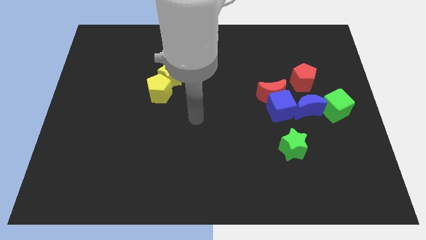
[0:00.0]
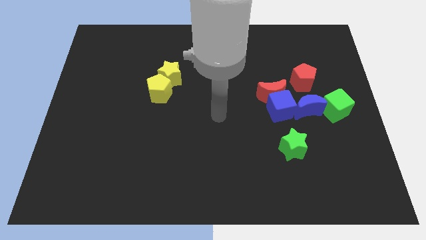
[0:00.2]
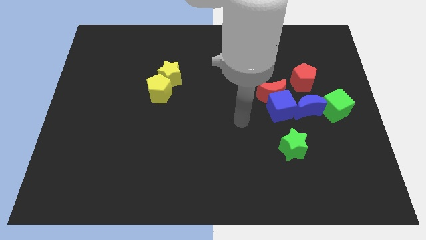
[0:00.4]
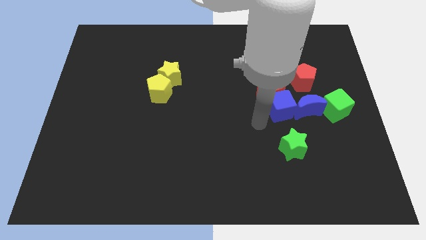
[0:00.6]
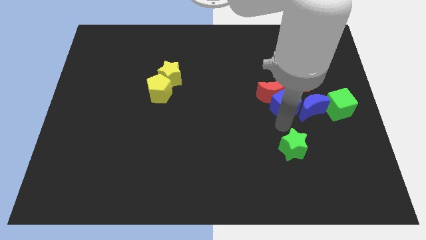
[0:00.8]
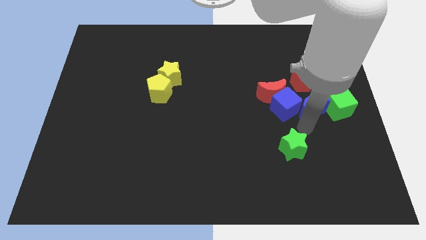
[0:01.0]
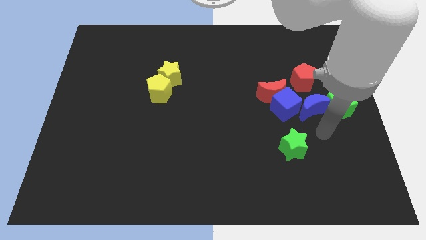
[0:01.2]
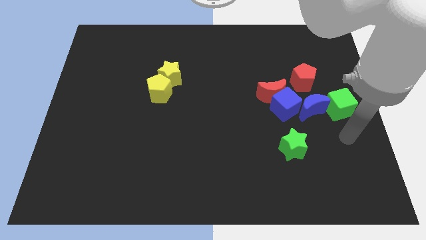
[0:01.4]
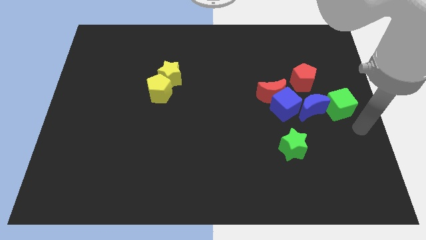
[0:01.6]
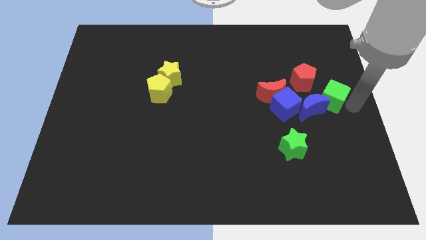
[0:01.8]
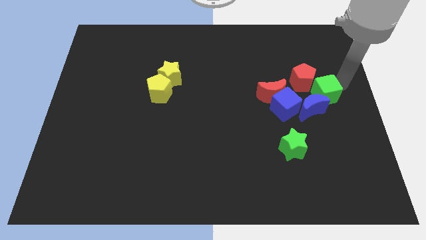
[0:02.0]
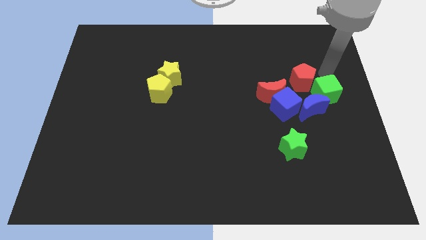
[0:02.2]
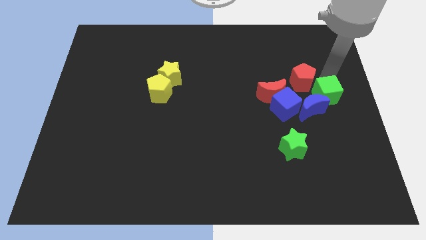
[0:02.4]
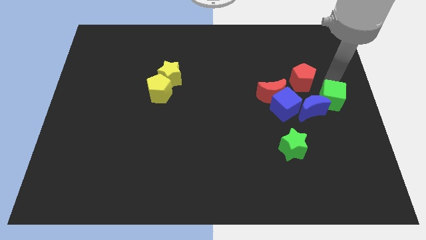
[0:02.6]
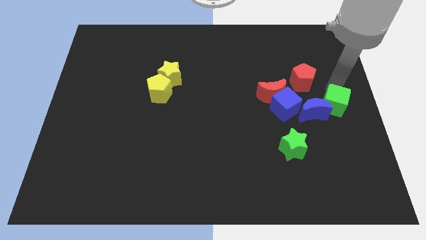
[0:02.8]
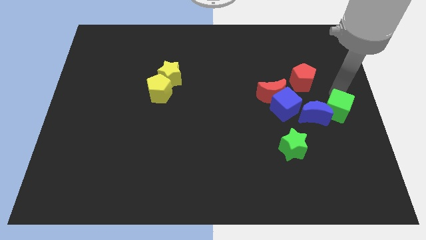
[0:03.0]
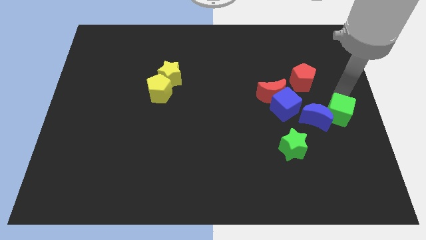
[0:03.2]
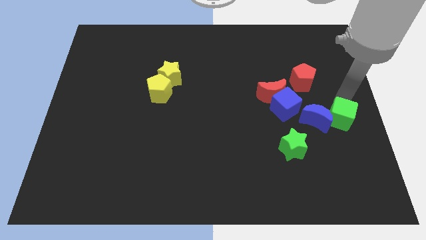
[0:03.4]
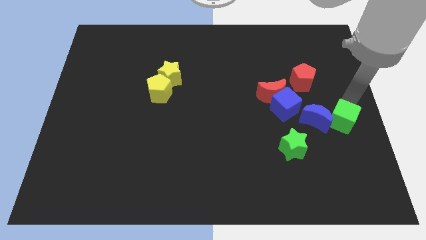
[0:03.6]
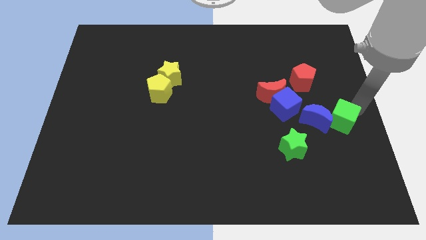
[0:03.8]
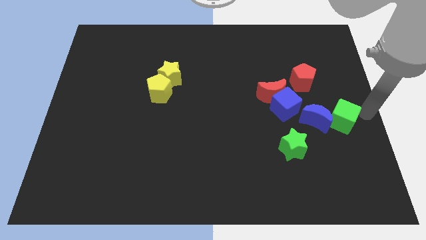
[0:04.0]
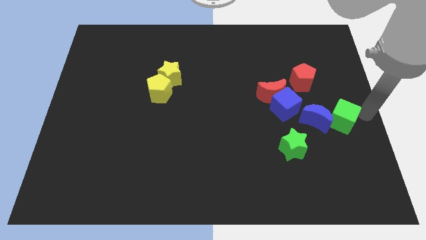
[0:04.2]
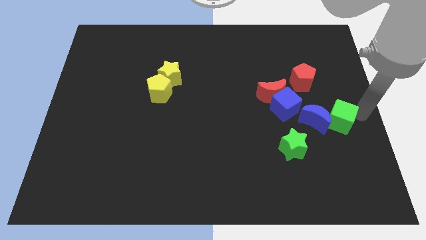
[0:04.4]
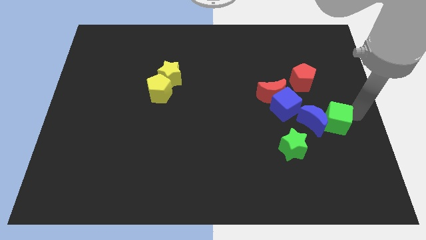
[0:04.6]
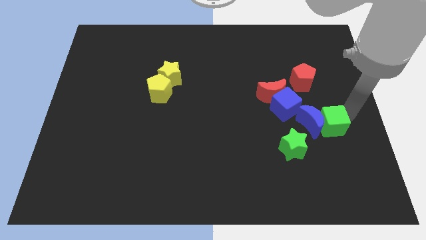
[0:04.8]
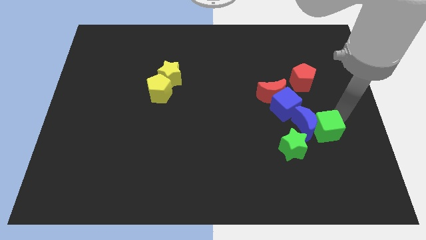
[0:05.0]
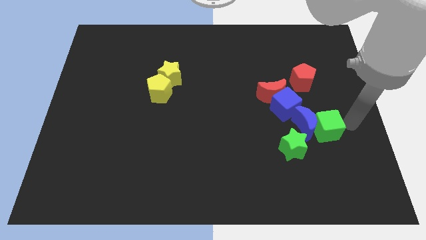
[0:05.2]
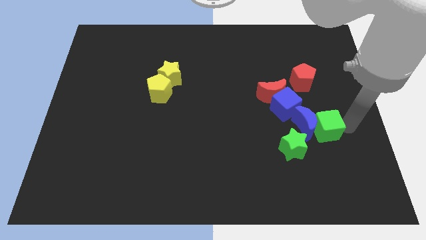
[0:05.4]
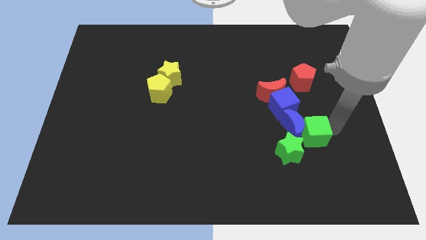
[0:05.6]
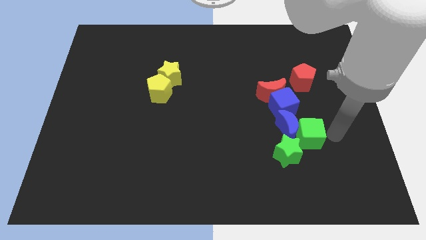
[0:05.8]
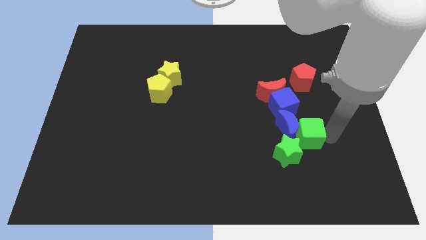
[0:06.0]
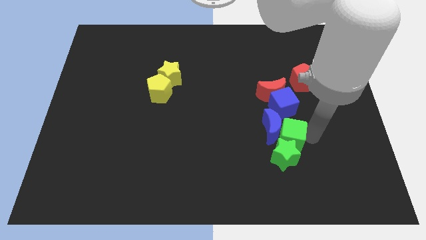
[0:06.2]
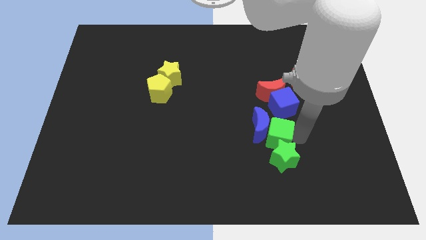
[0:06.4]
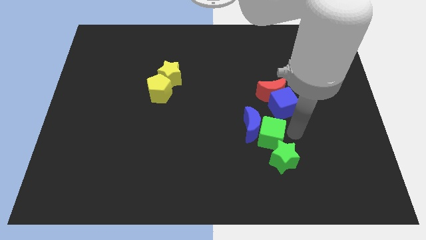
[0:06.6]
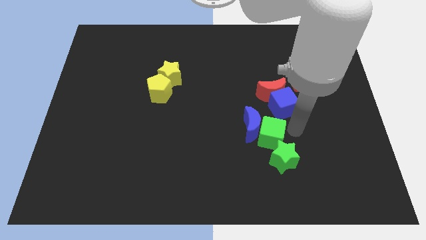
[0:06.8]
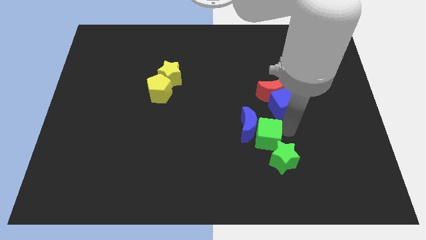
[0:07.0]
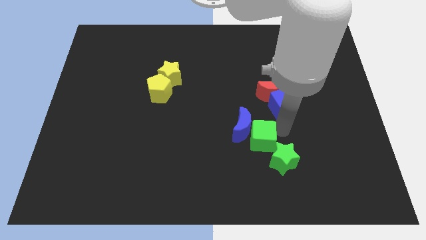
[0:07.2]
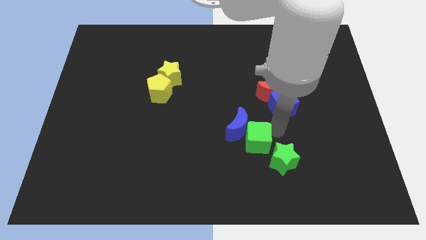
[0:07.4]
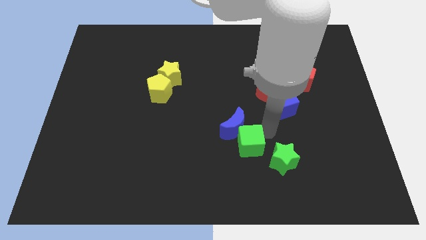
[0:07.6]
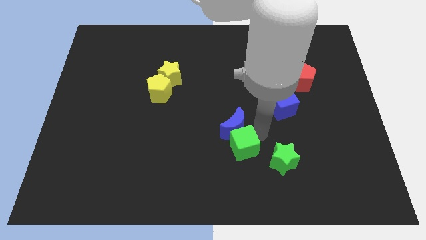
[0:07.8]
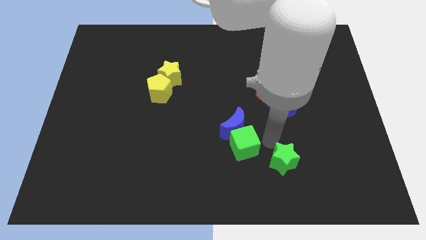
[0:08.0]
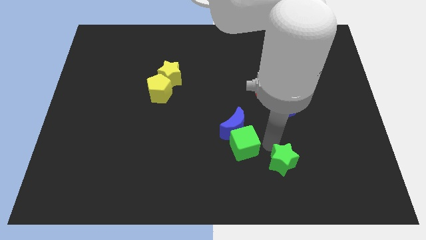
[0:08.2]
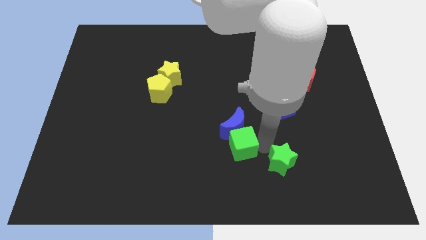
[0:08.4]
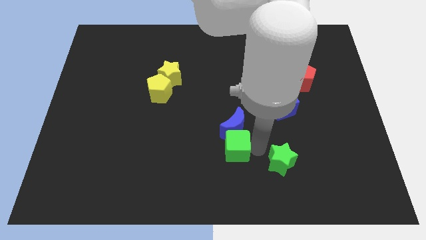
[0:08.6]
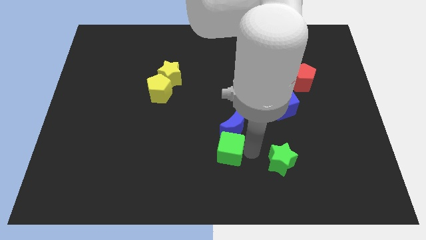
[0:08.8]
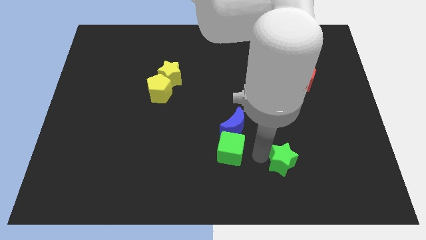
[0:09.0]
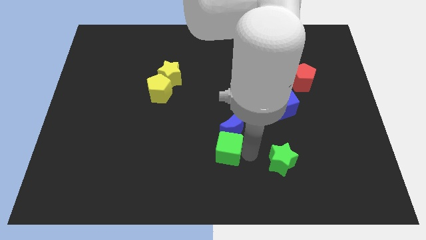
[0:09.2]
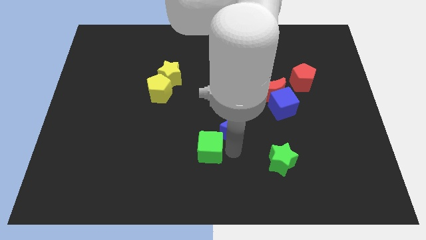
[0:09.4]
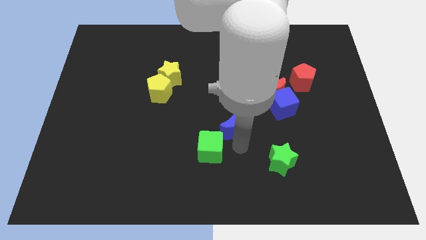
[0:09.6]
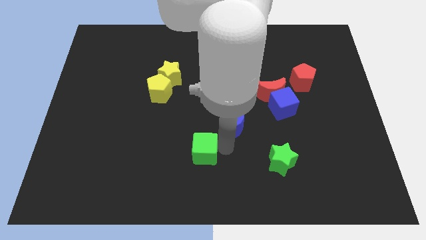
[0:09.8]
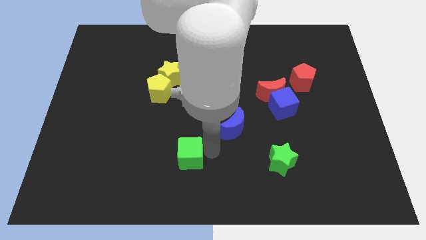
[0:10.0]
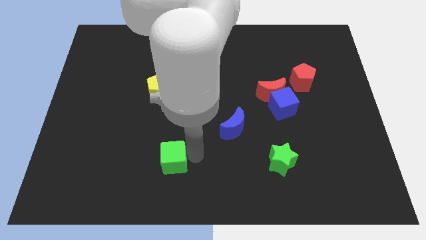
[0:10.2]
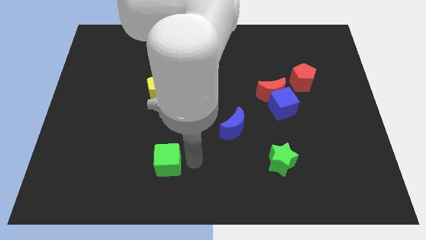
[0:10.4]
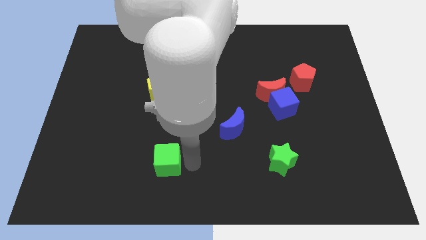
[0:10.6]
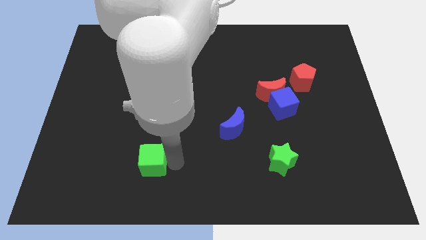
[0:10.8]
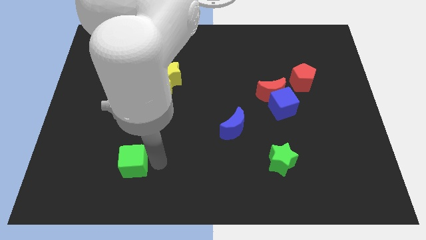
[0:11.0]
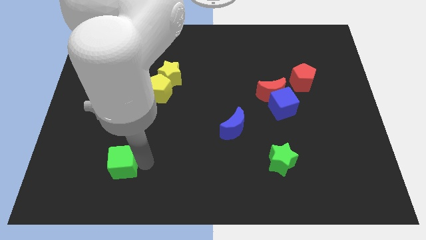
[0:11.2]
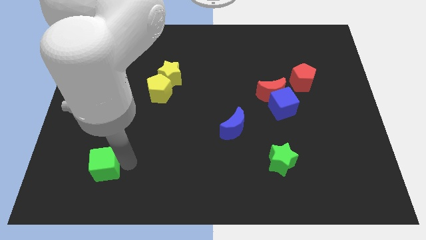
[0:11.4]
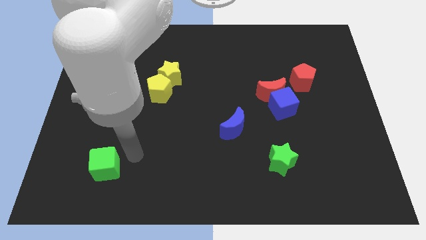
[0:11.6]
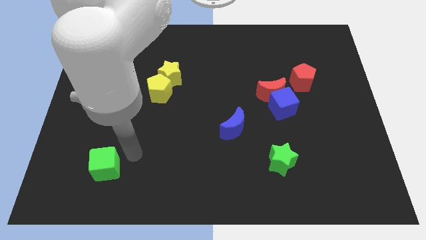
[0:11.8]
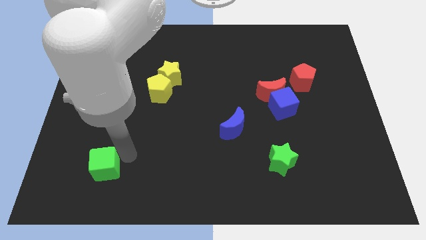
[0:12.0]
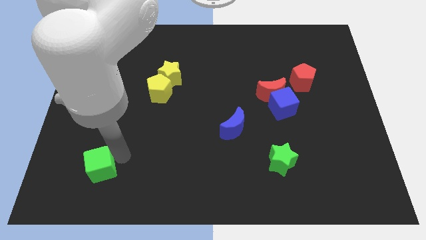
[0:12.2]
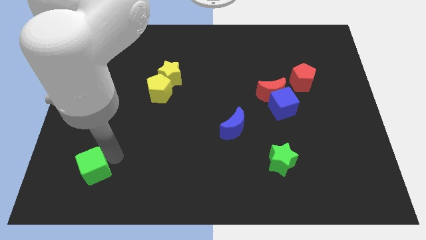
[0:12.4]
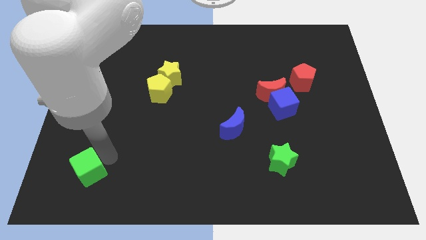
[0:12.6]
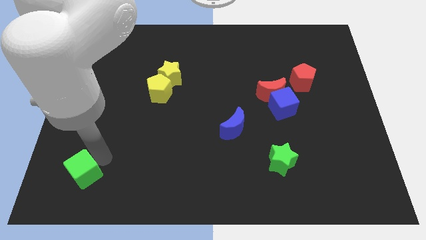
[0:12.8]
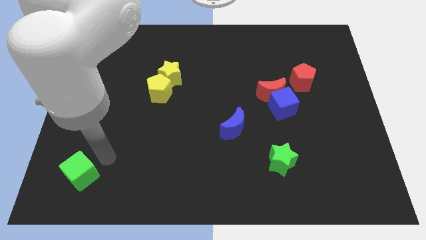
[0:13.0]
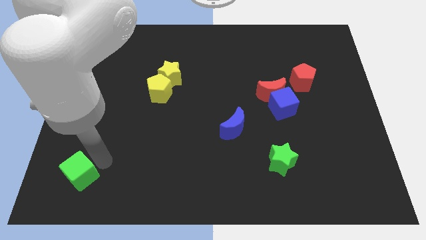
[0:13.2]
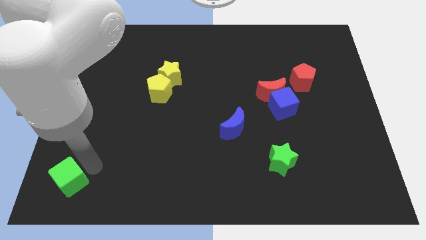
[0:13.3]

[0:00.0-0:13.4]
move the green cube to the bottom left

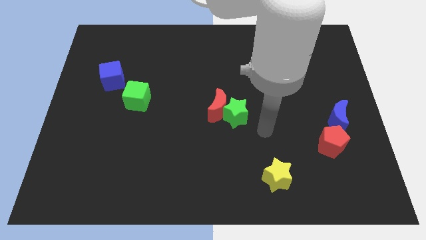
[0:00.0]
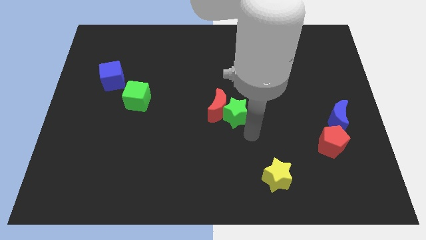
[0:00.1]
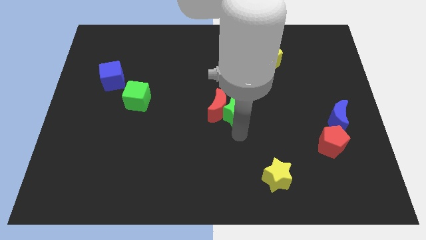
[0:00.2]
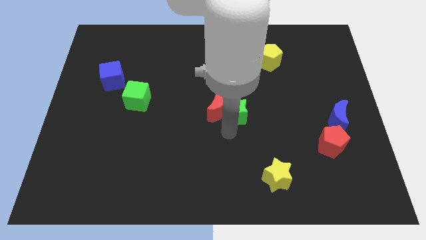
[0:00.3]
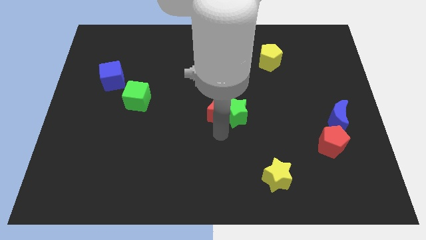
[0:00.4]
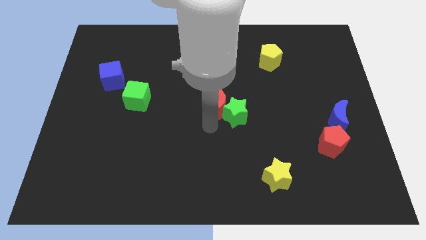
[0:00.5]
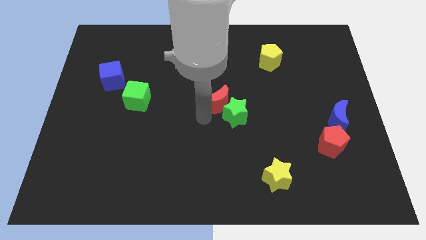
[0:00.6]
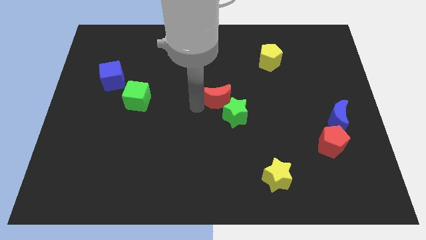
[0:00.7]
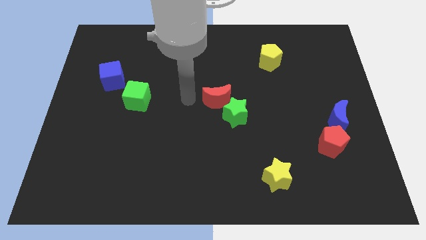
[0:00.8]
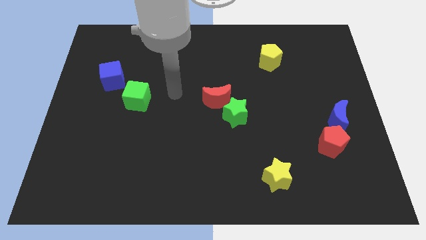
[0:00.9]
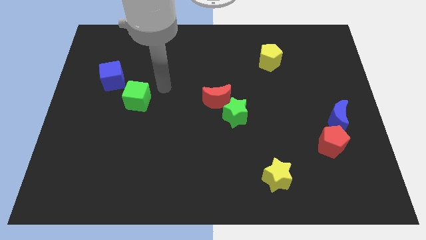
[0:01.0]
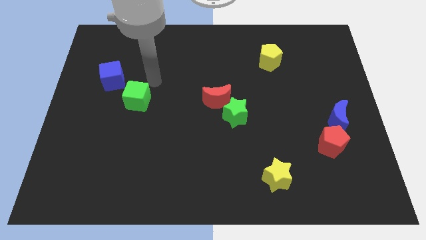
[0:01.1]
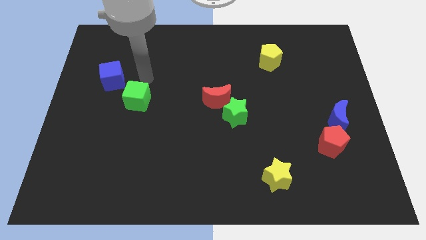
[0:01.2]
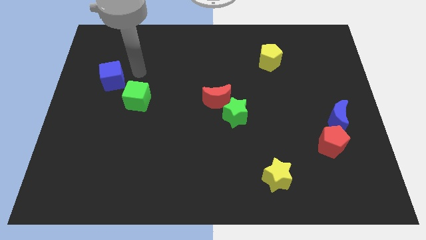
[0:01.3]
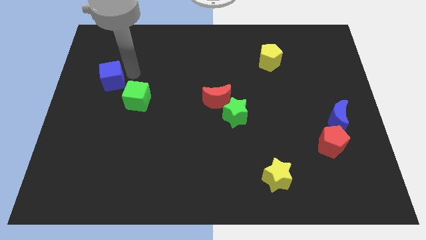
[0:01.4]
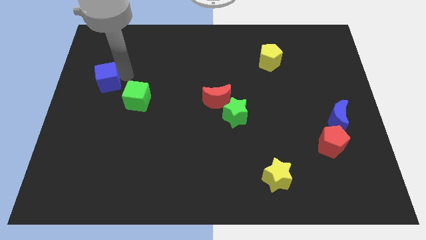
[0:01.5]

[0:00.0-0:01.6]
put the blue cube to the left side of the board

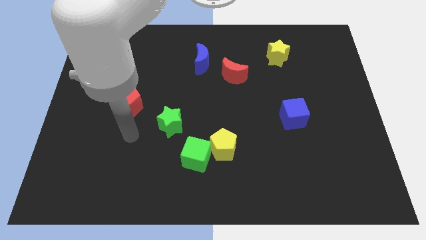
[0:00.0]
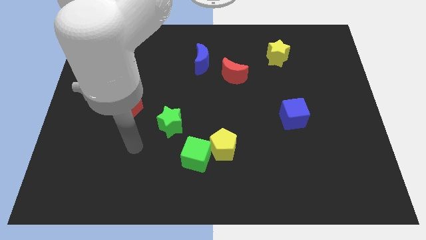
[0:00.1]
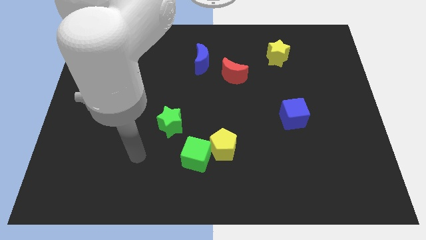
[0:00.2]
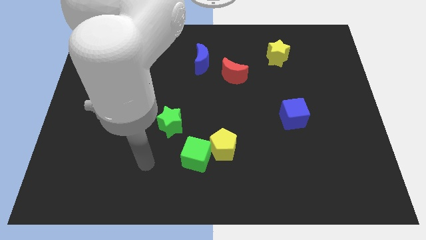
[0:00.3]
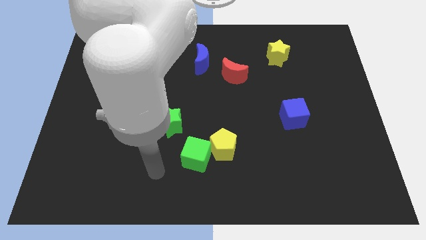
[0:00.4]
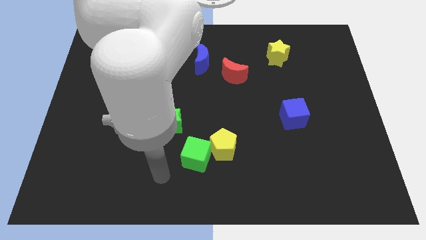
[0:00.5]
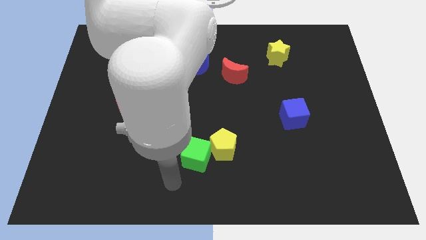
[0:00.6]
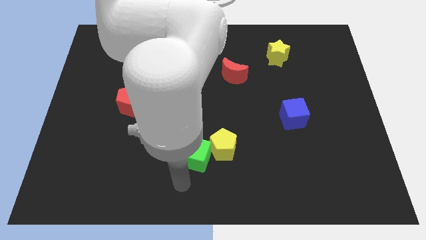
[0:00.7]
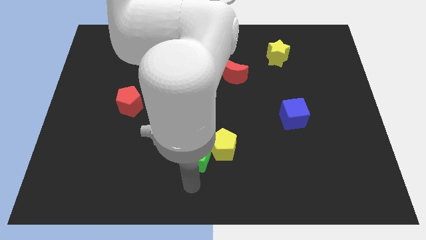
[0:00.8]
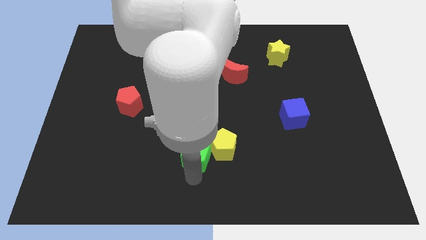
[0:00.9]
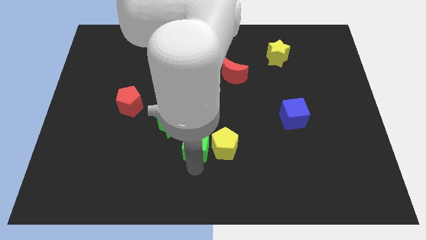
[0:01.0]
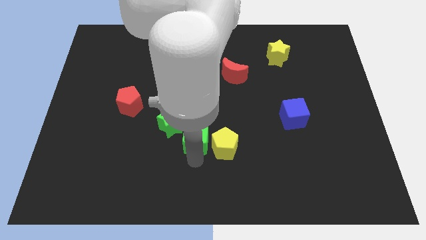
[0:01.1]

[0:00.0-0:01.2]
move the green cube to the middle of the board
